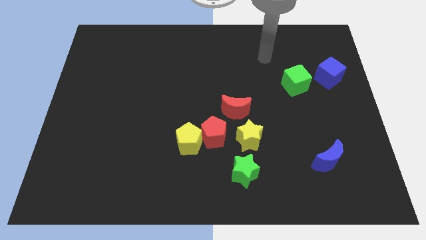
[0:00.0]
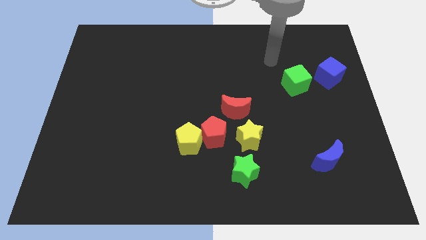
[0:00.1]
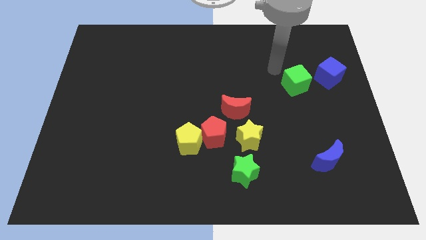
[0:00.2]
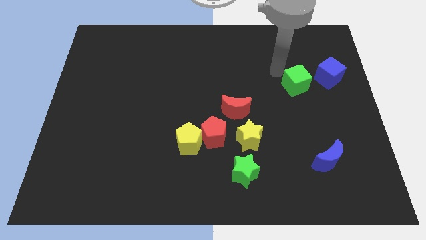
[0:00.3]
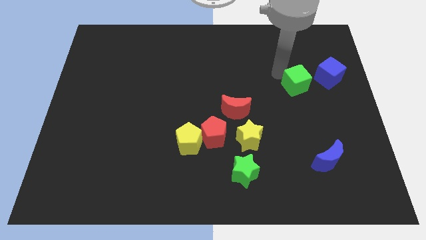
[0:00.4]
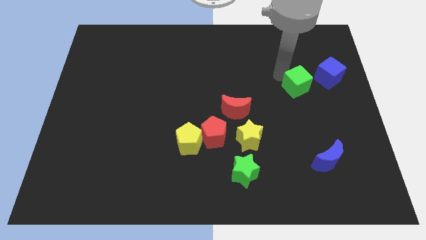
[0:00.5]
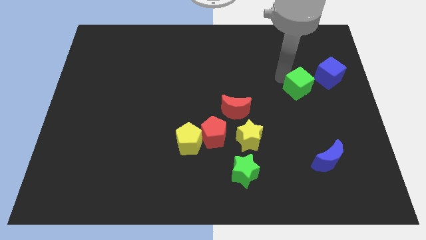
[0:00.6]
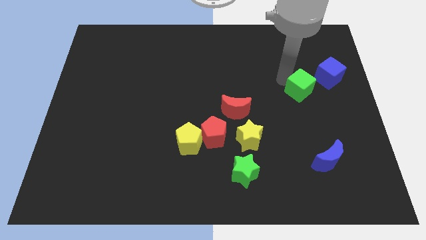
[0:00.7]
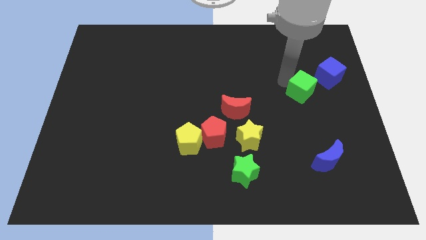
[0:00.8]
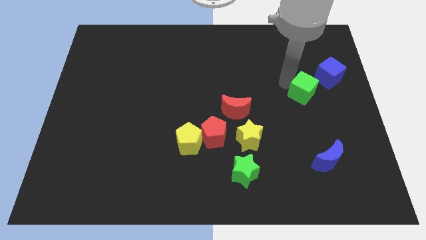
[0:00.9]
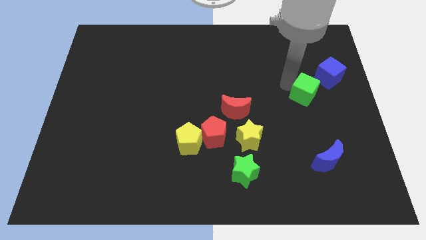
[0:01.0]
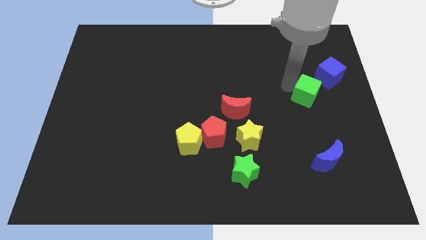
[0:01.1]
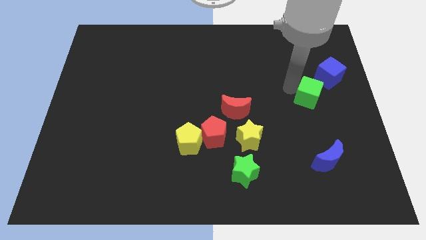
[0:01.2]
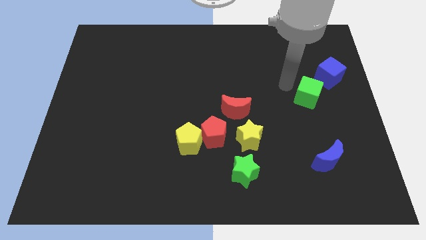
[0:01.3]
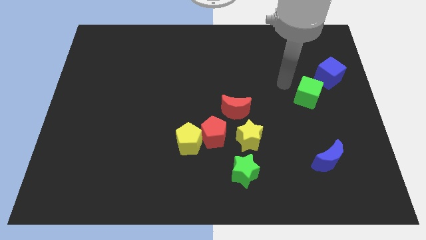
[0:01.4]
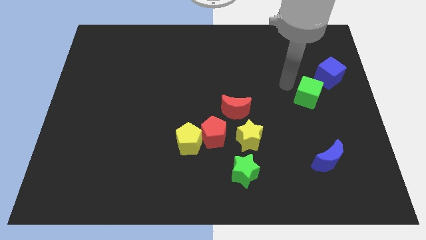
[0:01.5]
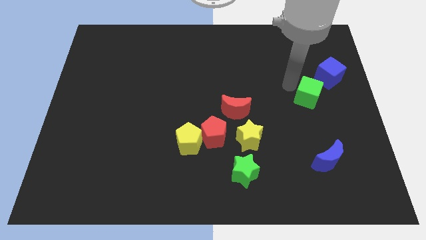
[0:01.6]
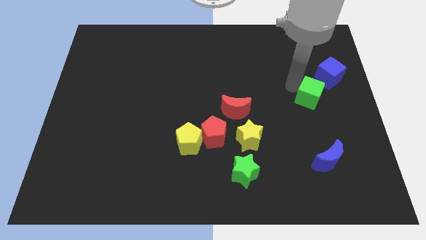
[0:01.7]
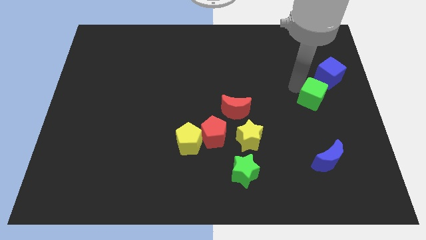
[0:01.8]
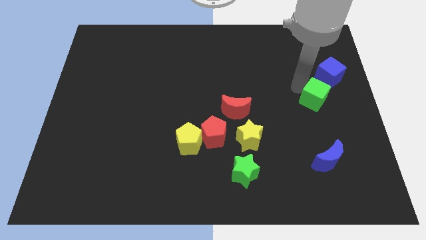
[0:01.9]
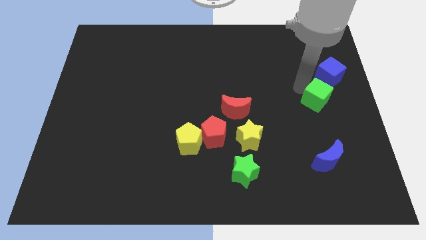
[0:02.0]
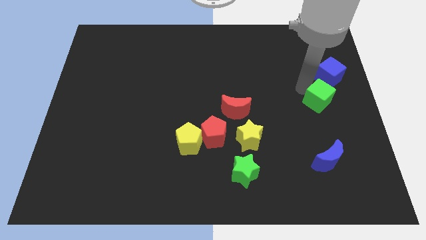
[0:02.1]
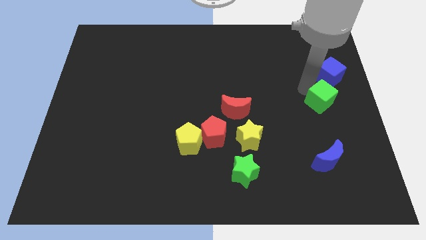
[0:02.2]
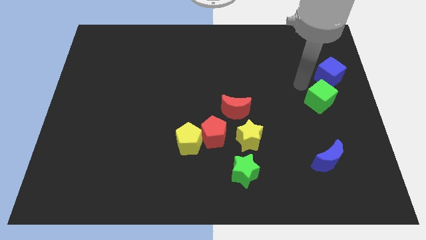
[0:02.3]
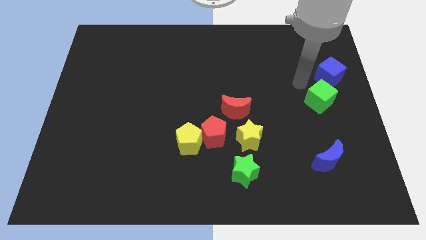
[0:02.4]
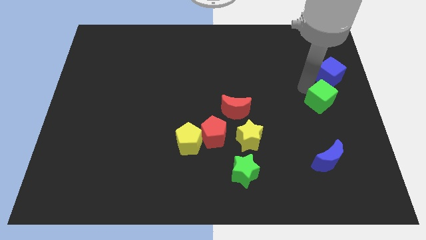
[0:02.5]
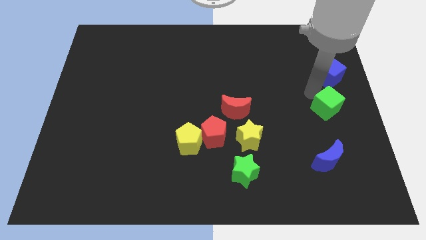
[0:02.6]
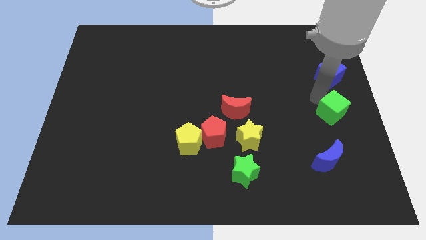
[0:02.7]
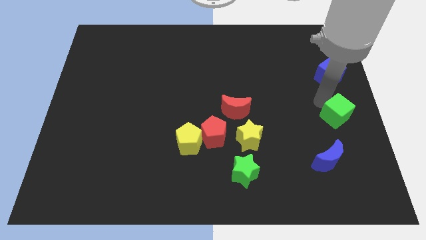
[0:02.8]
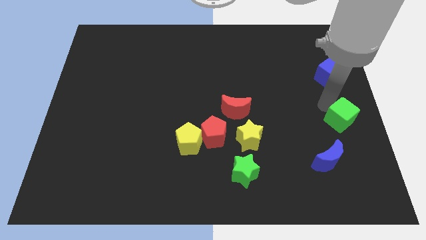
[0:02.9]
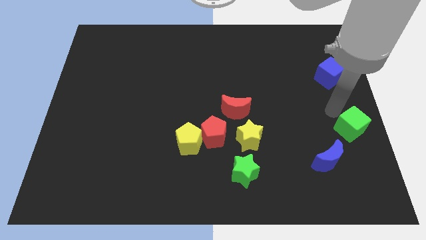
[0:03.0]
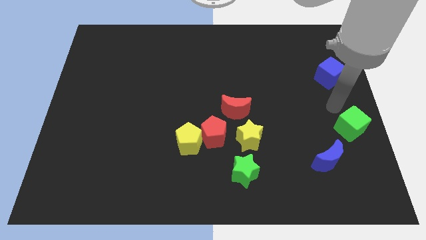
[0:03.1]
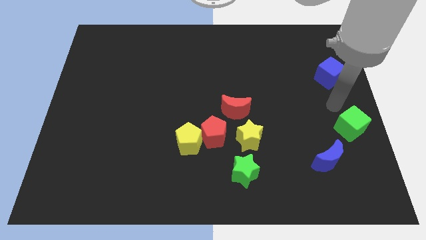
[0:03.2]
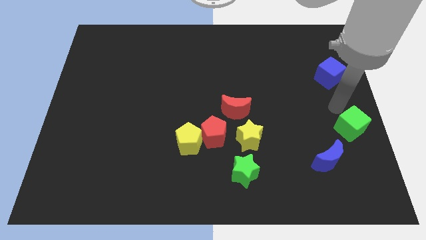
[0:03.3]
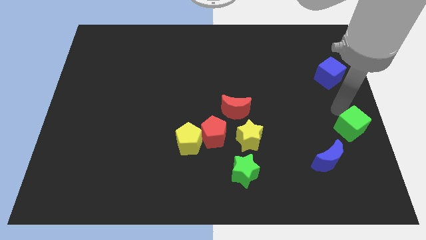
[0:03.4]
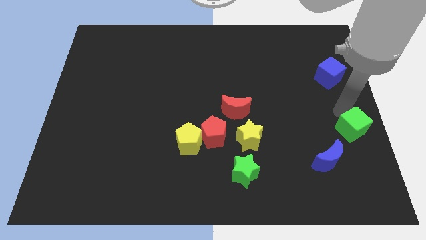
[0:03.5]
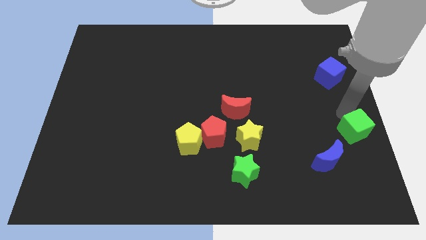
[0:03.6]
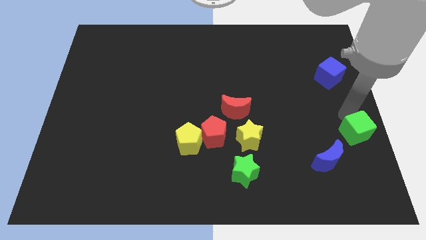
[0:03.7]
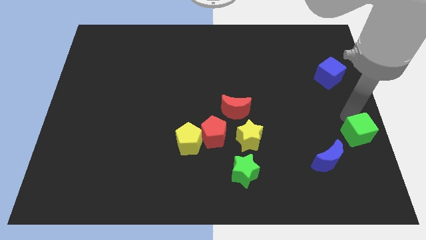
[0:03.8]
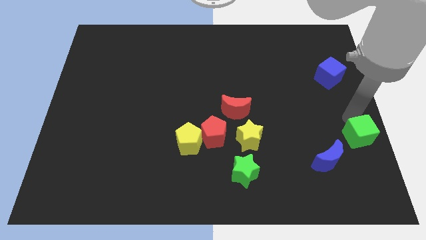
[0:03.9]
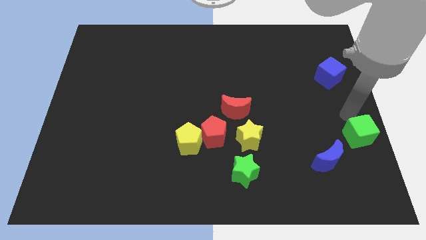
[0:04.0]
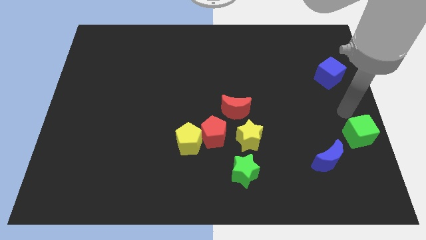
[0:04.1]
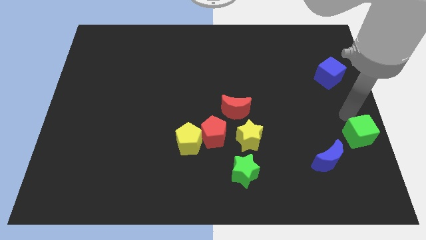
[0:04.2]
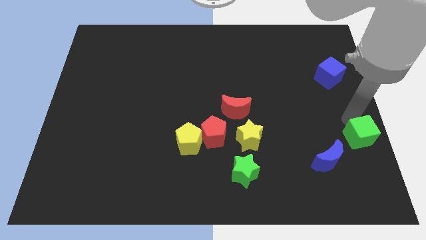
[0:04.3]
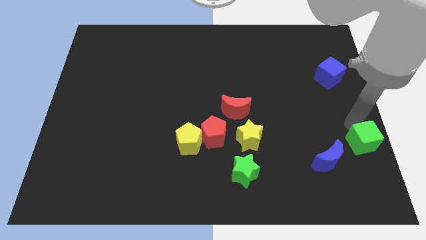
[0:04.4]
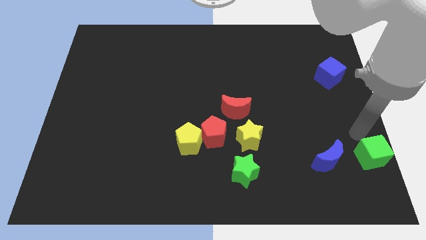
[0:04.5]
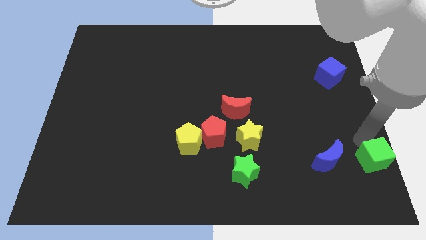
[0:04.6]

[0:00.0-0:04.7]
slide the green cube to the bottom right of the board

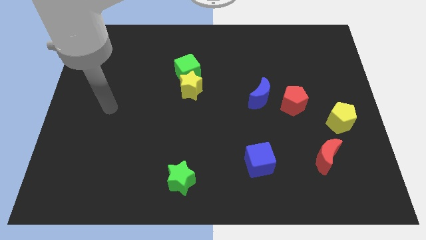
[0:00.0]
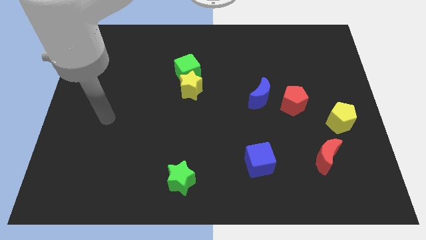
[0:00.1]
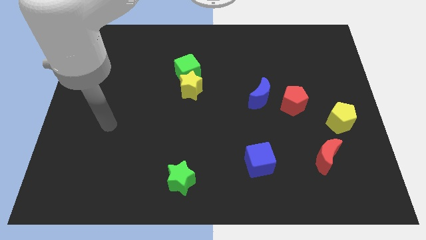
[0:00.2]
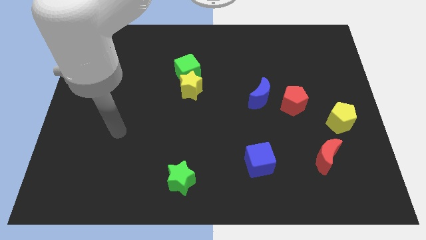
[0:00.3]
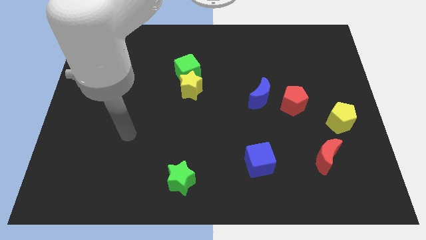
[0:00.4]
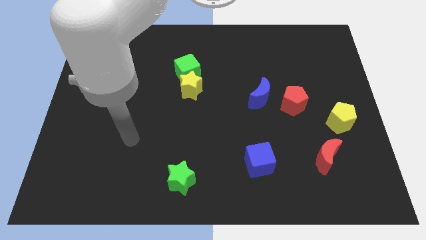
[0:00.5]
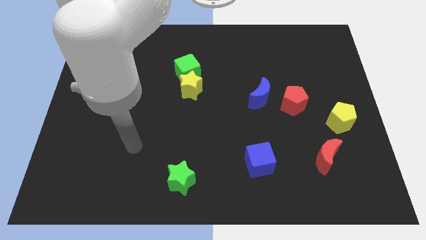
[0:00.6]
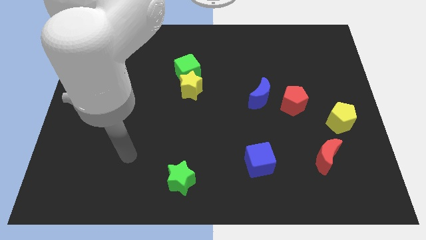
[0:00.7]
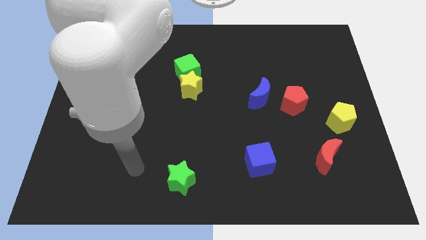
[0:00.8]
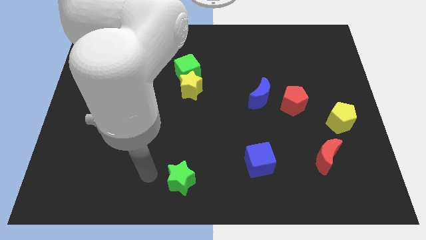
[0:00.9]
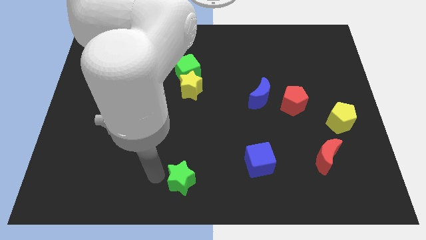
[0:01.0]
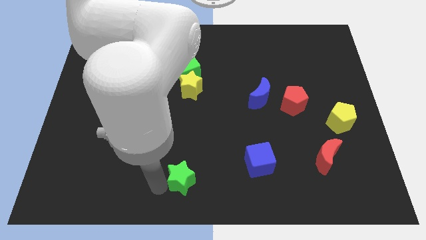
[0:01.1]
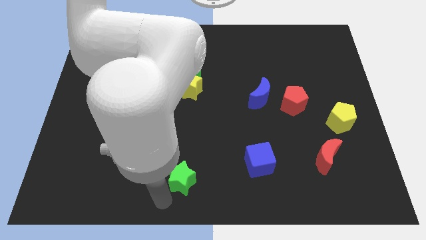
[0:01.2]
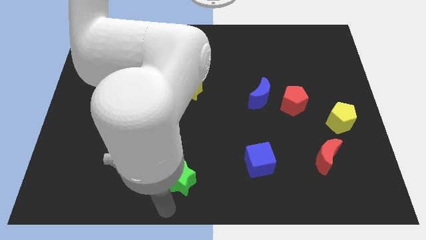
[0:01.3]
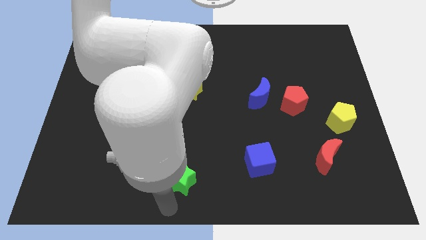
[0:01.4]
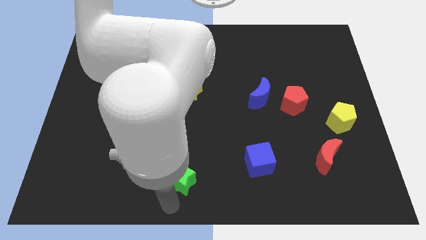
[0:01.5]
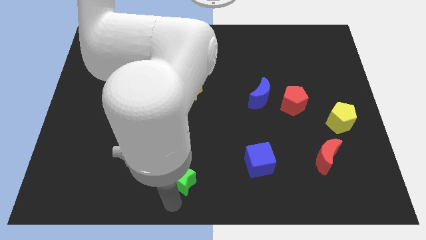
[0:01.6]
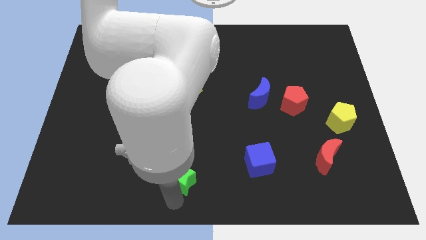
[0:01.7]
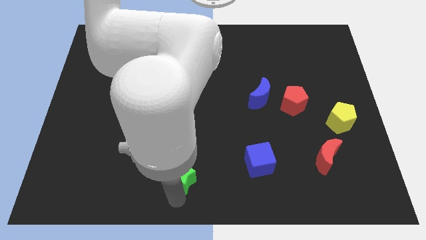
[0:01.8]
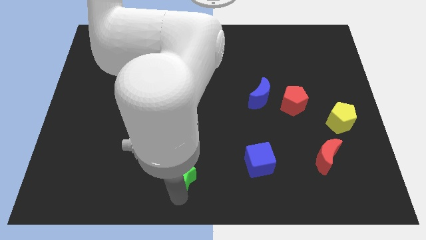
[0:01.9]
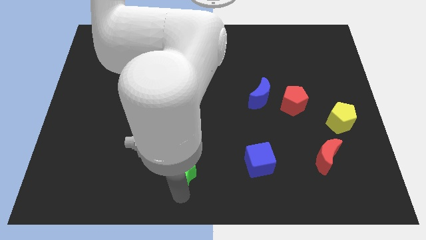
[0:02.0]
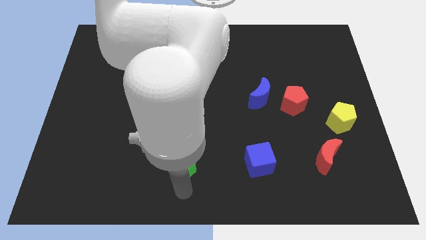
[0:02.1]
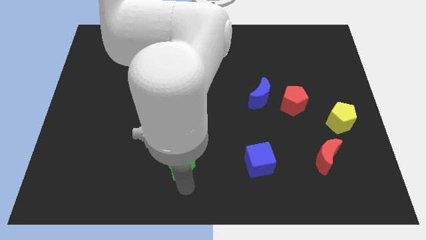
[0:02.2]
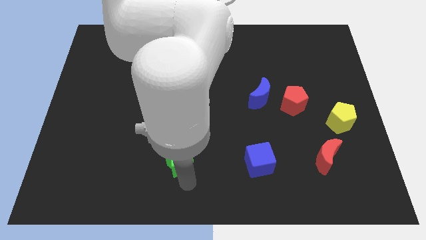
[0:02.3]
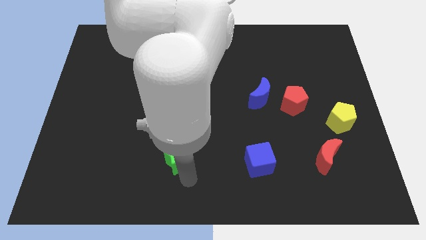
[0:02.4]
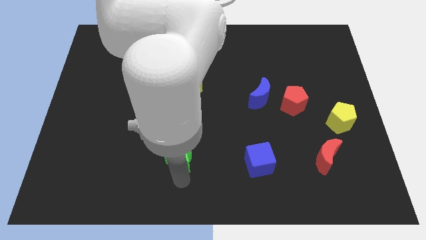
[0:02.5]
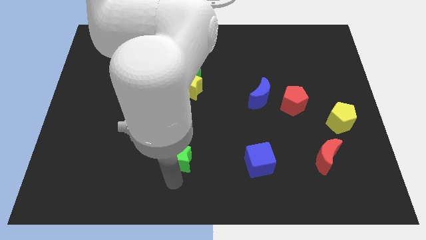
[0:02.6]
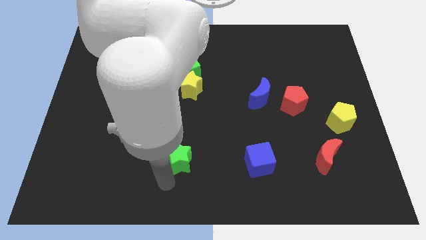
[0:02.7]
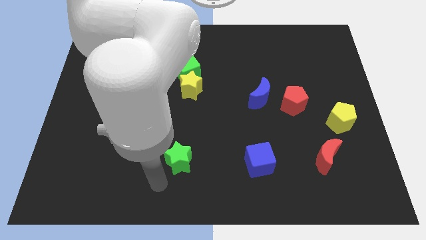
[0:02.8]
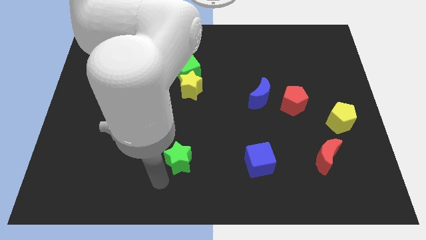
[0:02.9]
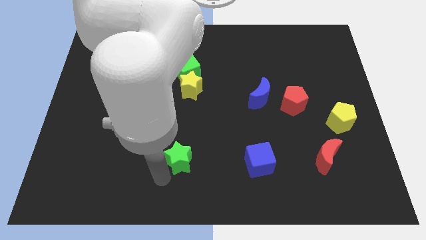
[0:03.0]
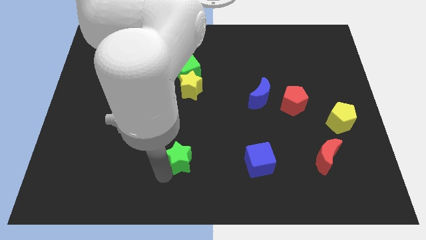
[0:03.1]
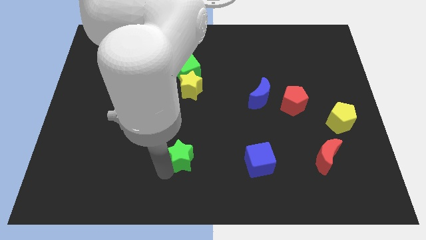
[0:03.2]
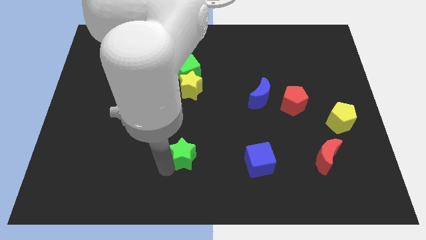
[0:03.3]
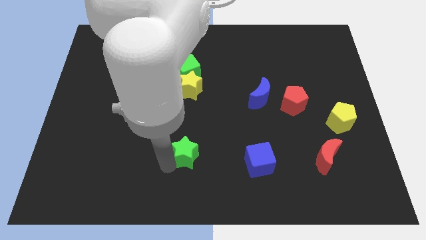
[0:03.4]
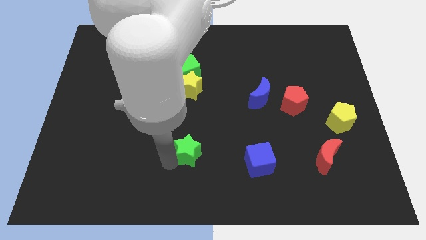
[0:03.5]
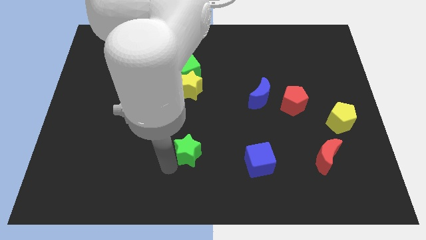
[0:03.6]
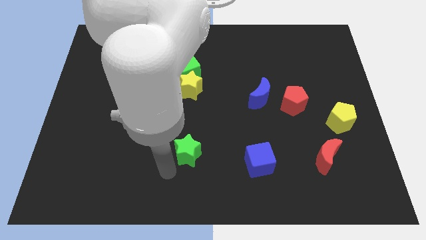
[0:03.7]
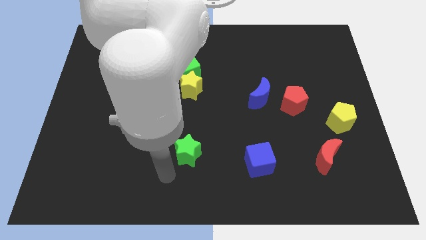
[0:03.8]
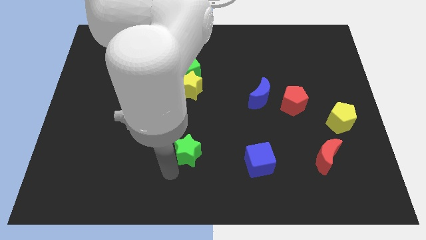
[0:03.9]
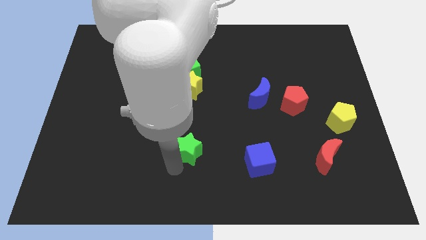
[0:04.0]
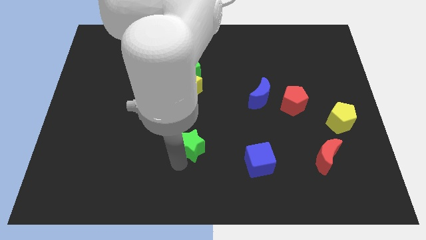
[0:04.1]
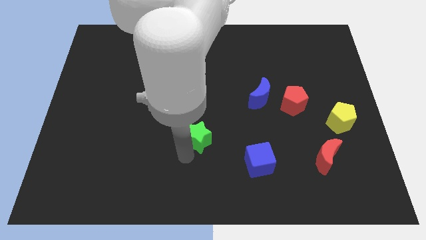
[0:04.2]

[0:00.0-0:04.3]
slide the green star to the center
